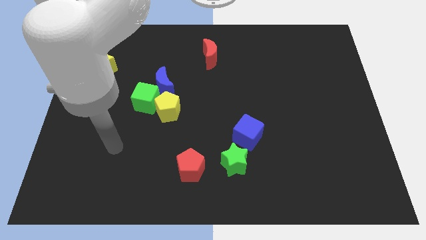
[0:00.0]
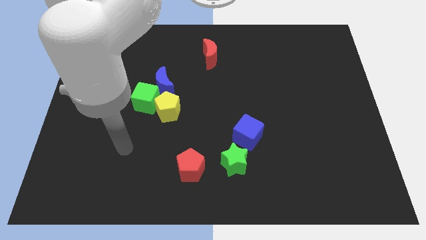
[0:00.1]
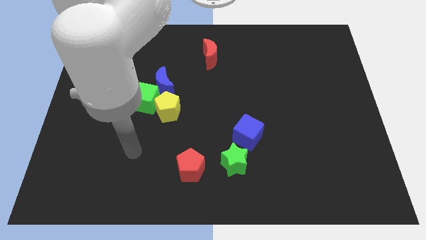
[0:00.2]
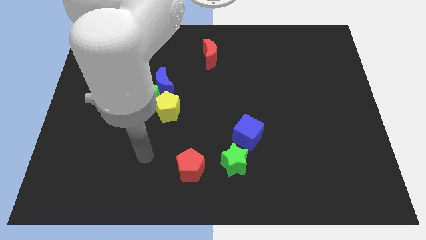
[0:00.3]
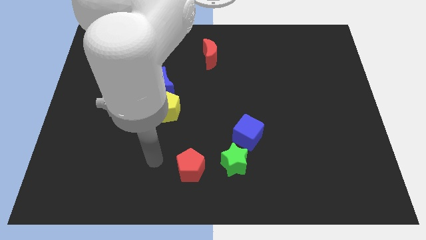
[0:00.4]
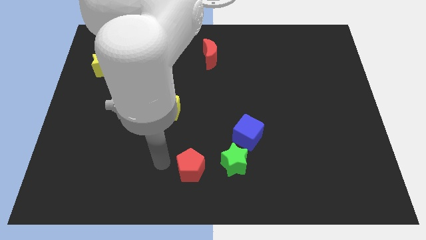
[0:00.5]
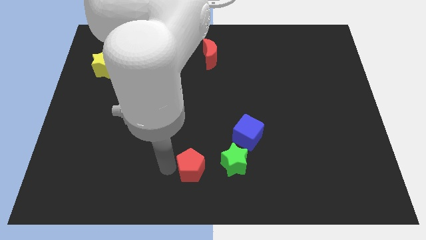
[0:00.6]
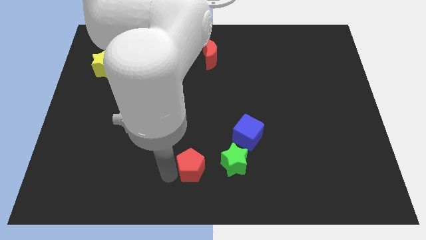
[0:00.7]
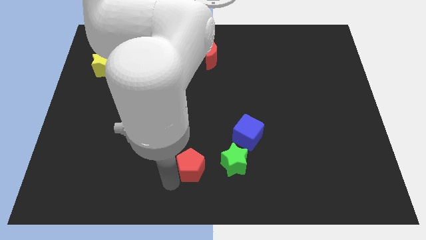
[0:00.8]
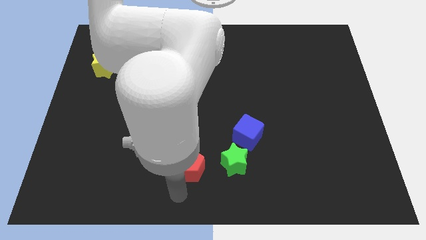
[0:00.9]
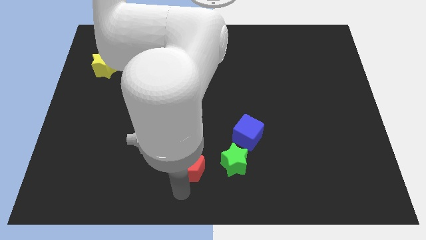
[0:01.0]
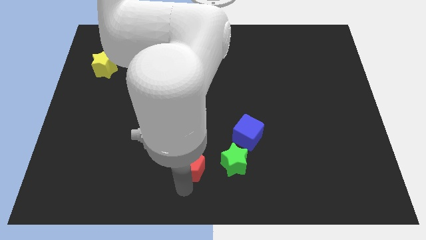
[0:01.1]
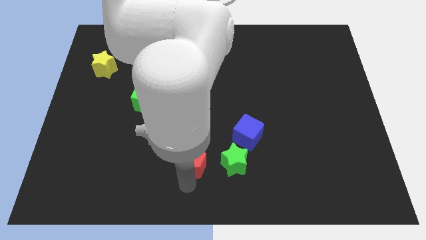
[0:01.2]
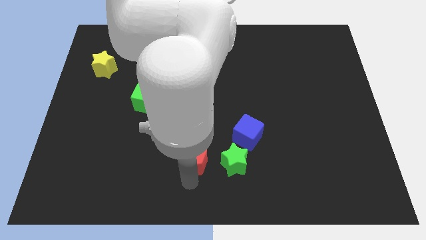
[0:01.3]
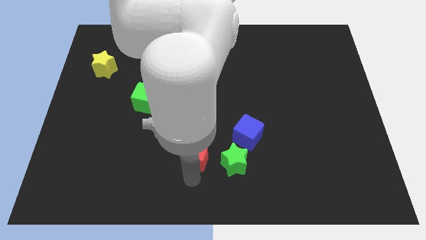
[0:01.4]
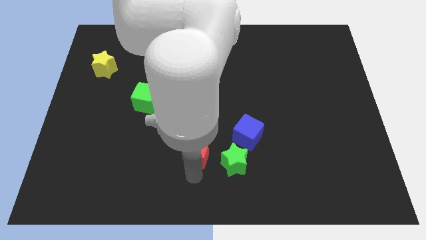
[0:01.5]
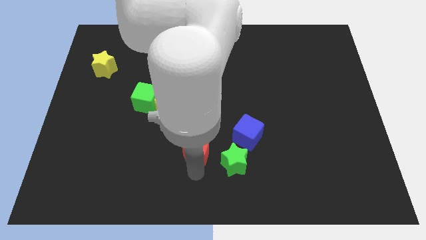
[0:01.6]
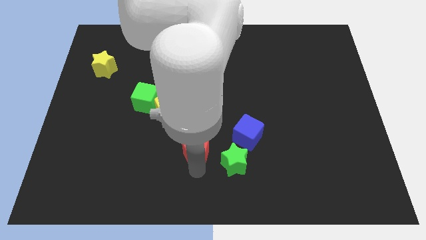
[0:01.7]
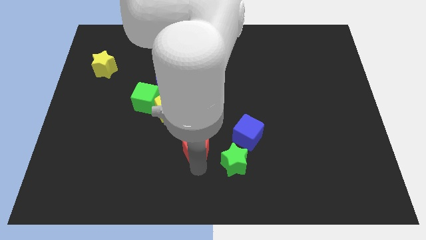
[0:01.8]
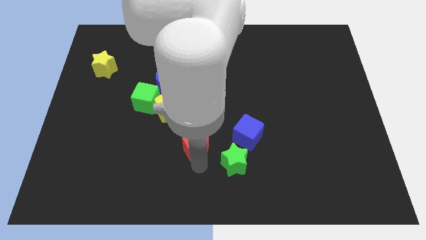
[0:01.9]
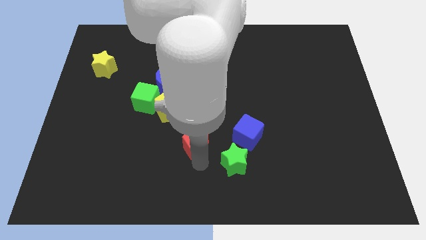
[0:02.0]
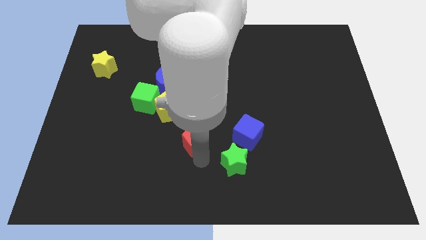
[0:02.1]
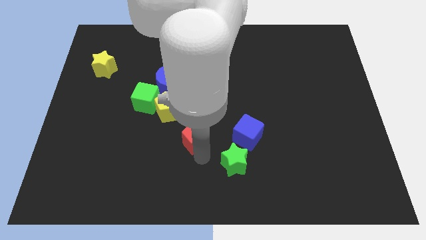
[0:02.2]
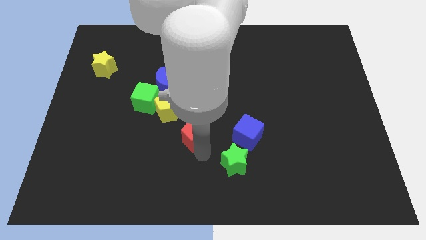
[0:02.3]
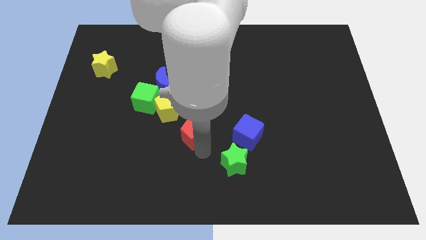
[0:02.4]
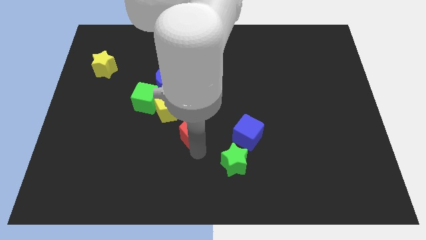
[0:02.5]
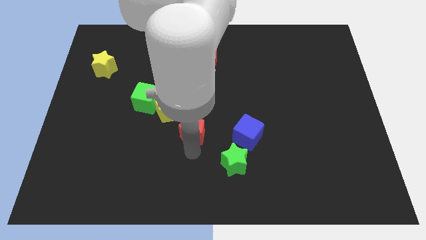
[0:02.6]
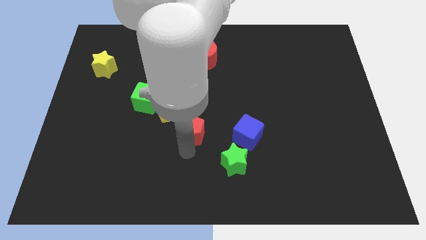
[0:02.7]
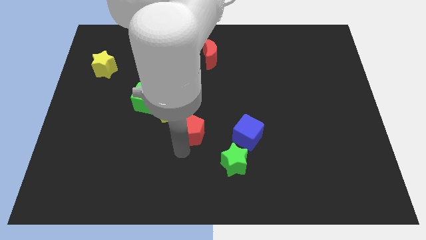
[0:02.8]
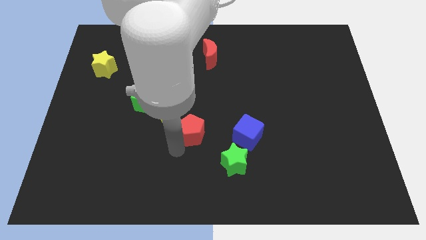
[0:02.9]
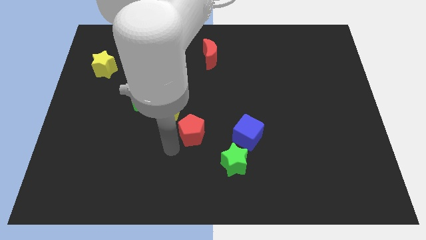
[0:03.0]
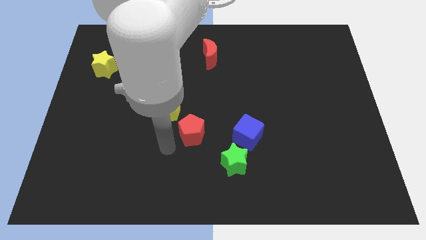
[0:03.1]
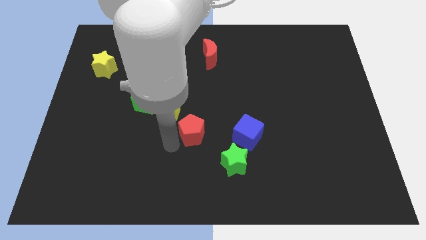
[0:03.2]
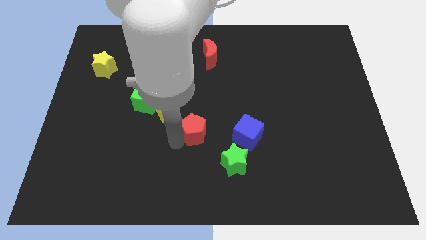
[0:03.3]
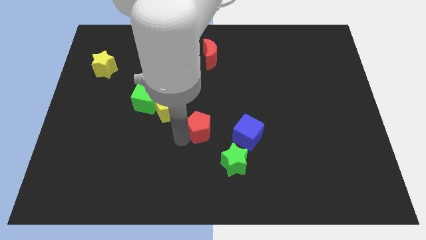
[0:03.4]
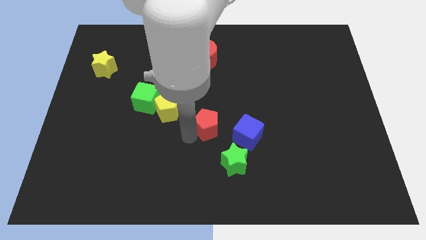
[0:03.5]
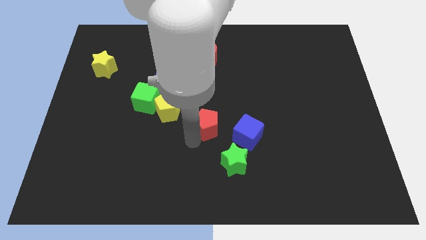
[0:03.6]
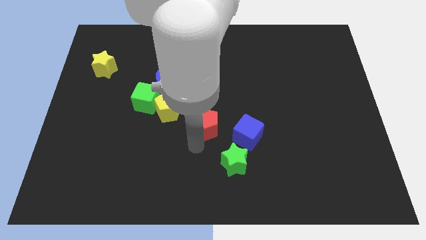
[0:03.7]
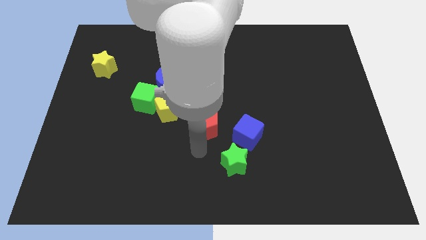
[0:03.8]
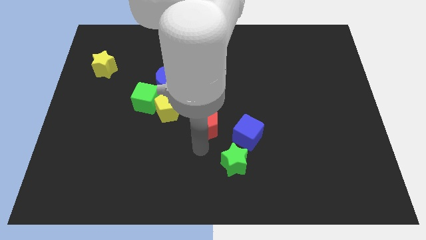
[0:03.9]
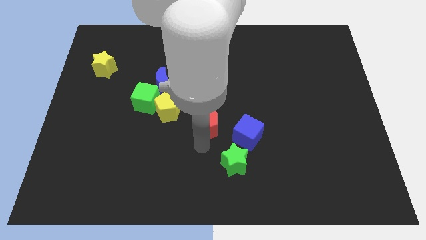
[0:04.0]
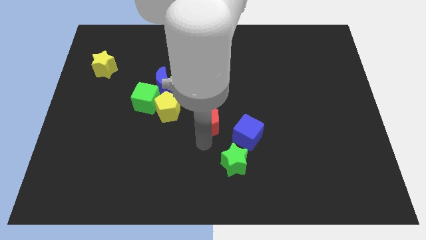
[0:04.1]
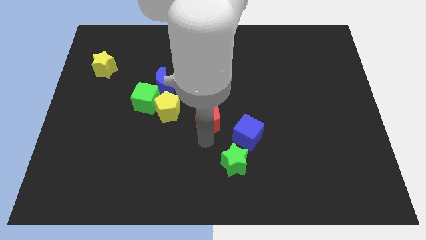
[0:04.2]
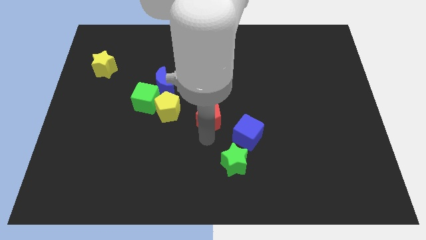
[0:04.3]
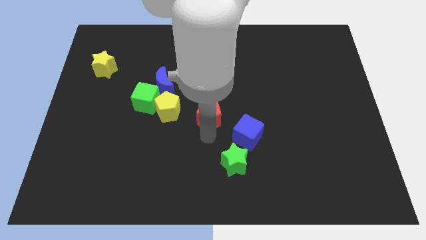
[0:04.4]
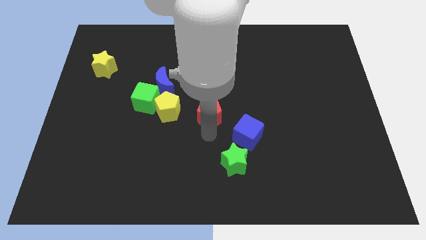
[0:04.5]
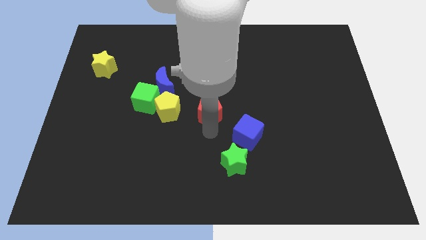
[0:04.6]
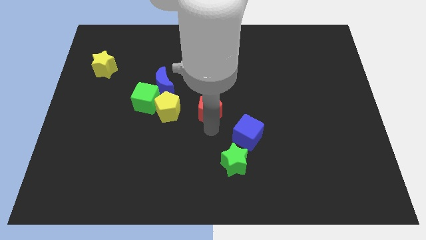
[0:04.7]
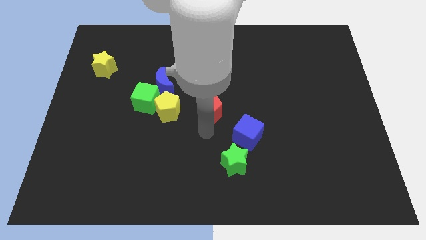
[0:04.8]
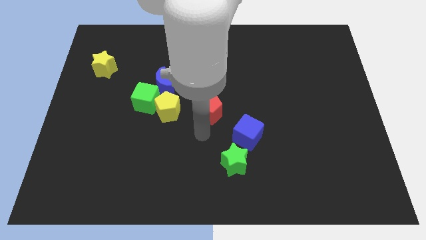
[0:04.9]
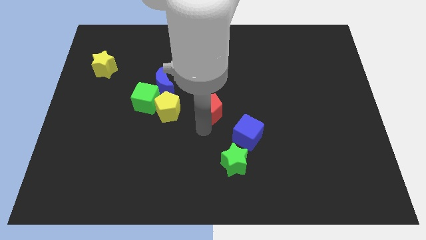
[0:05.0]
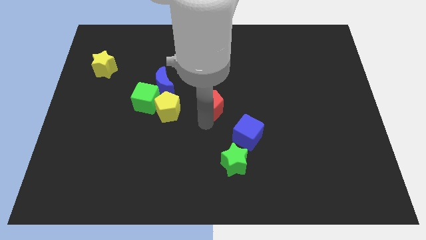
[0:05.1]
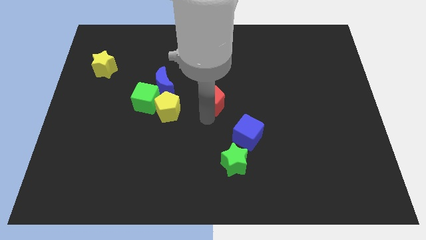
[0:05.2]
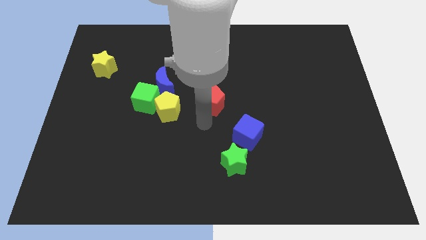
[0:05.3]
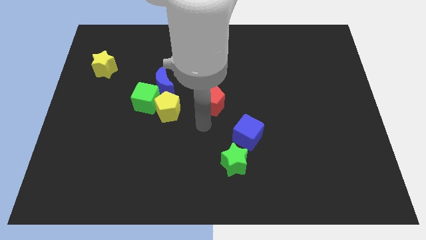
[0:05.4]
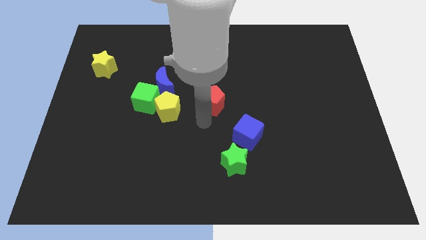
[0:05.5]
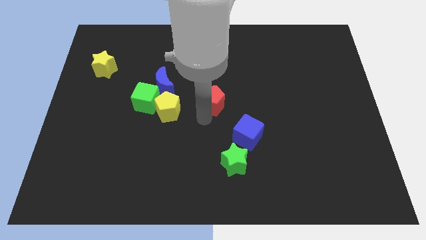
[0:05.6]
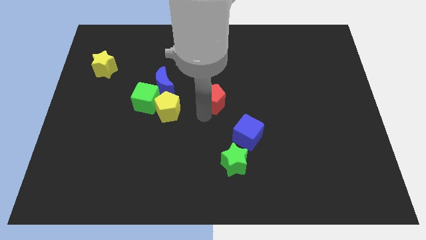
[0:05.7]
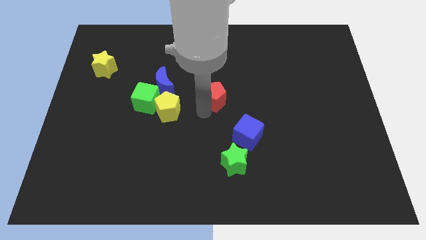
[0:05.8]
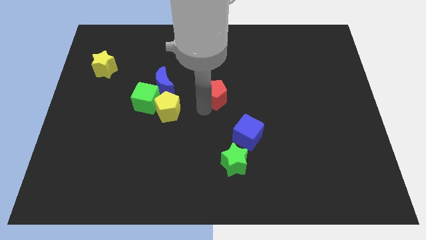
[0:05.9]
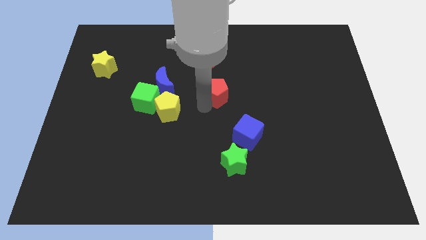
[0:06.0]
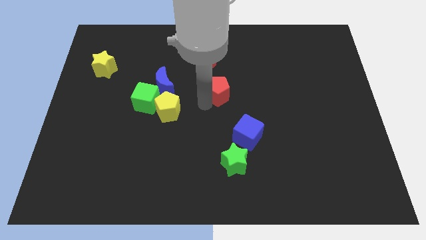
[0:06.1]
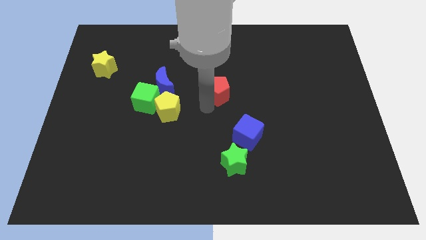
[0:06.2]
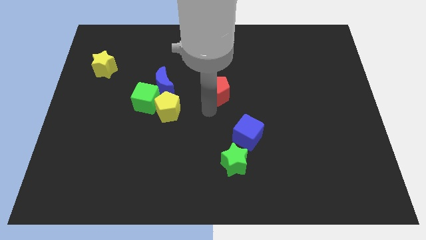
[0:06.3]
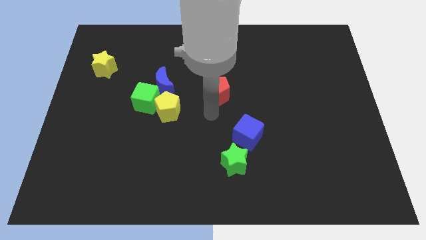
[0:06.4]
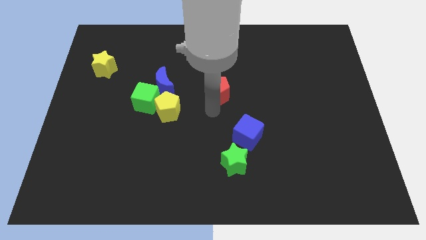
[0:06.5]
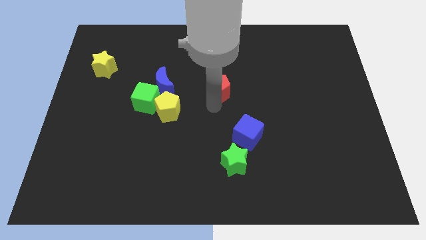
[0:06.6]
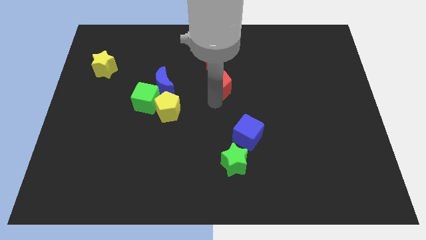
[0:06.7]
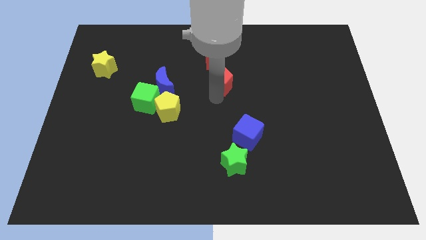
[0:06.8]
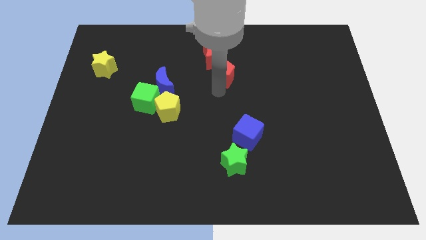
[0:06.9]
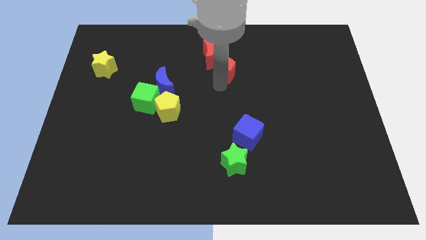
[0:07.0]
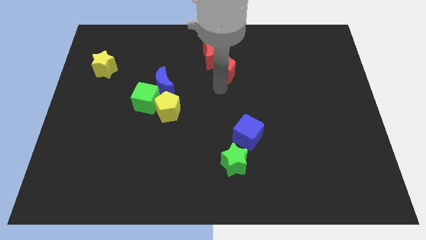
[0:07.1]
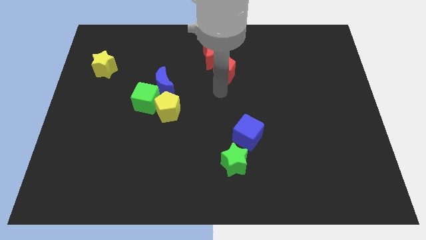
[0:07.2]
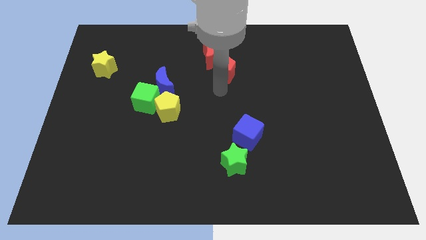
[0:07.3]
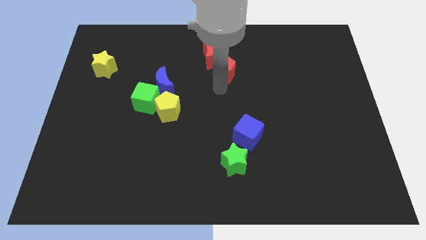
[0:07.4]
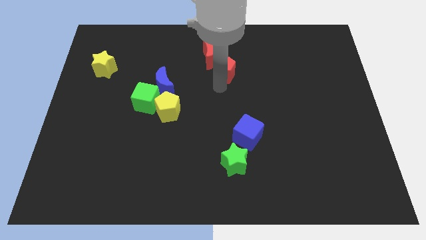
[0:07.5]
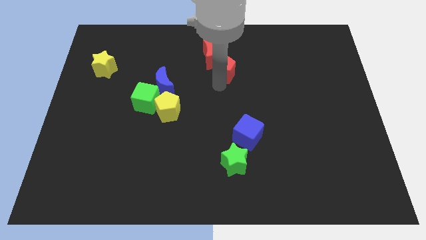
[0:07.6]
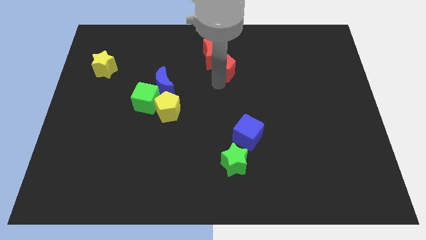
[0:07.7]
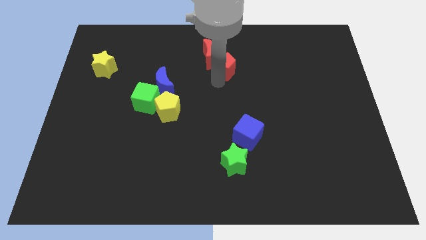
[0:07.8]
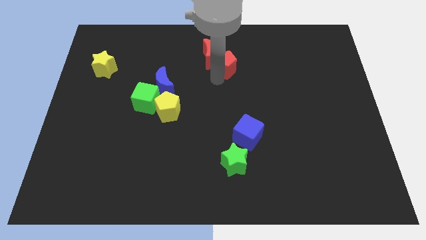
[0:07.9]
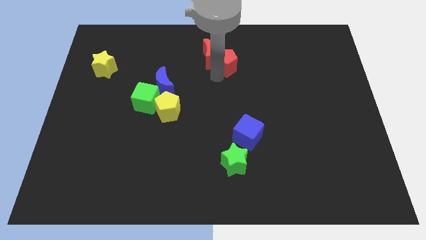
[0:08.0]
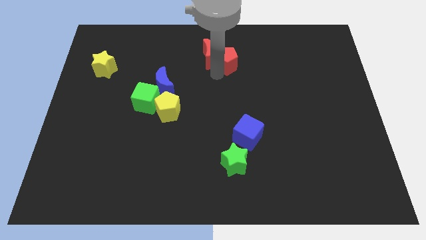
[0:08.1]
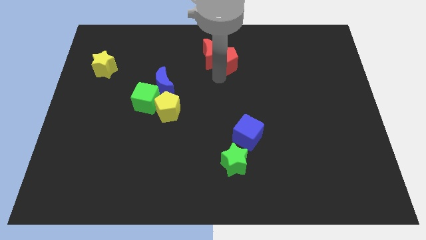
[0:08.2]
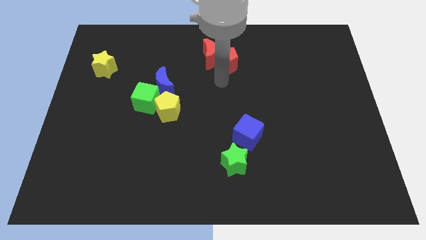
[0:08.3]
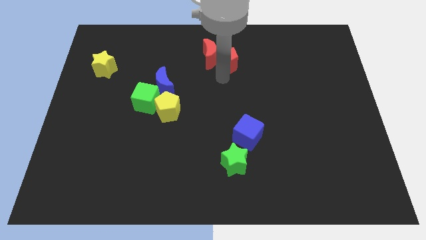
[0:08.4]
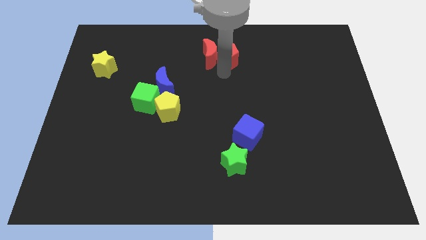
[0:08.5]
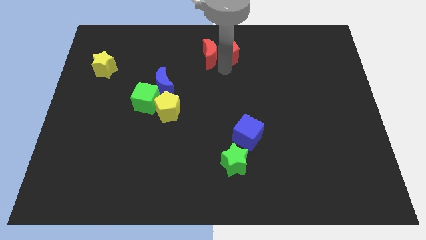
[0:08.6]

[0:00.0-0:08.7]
slide the red pentagon to the top side
